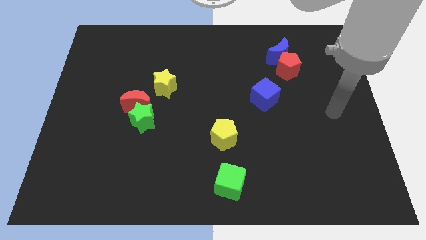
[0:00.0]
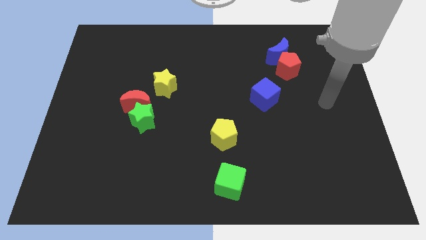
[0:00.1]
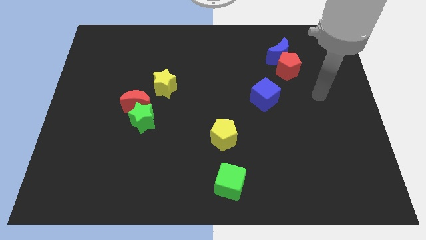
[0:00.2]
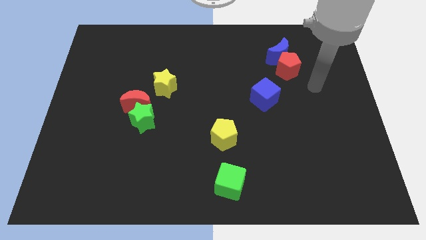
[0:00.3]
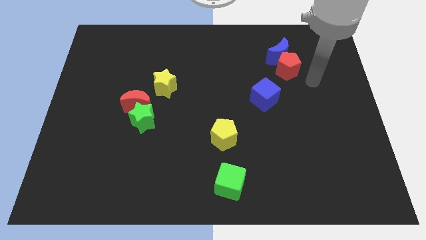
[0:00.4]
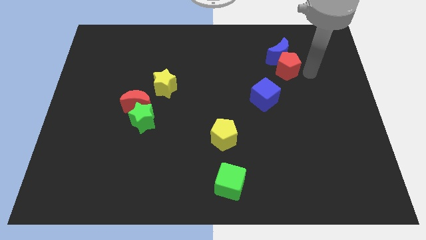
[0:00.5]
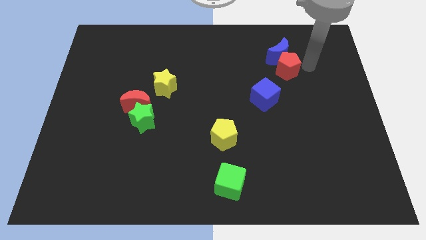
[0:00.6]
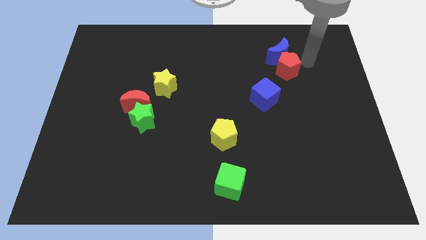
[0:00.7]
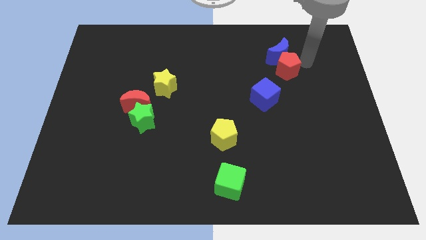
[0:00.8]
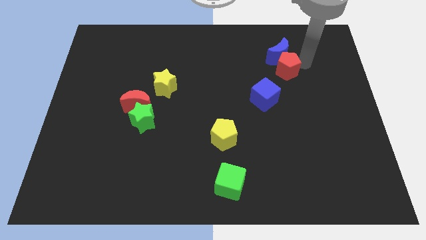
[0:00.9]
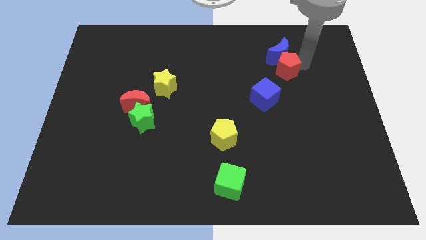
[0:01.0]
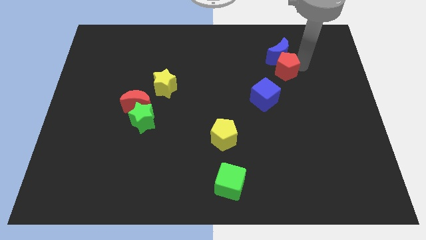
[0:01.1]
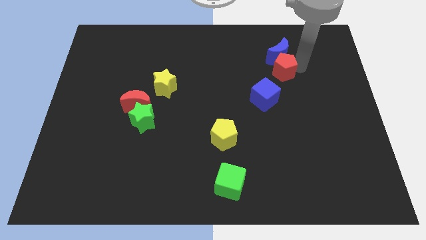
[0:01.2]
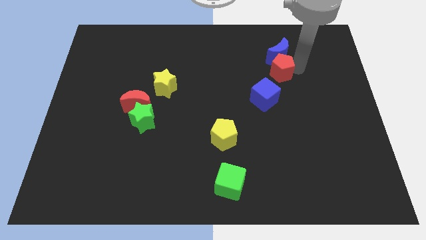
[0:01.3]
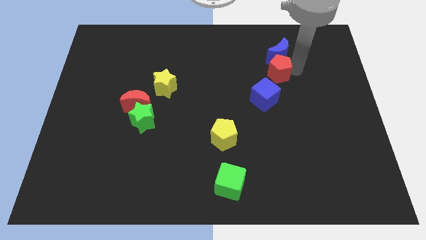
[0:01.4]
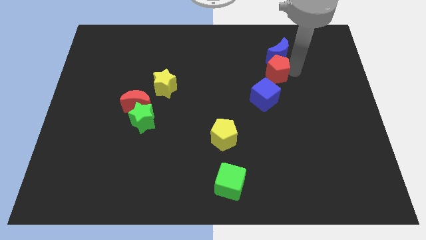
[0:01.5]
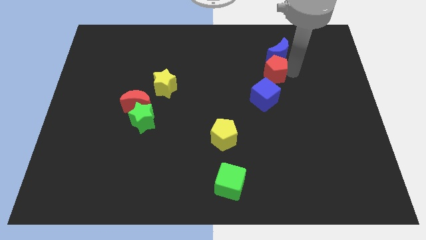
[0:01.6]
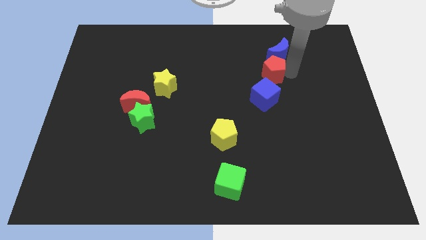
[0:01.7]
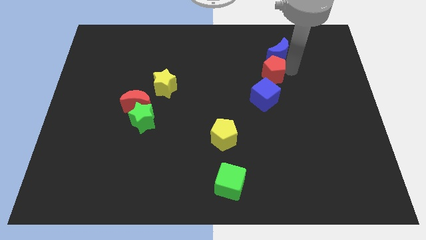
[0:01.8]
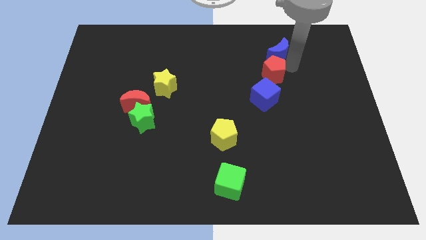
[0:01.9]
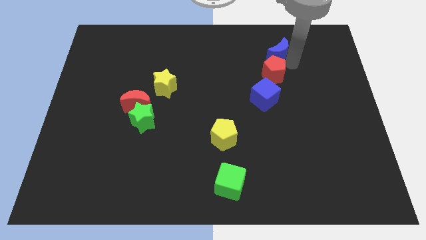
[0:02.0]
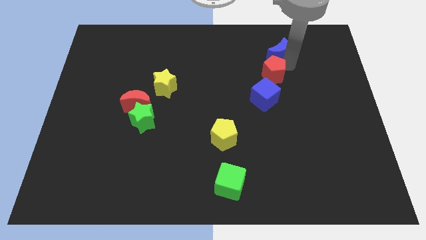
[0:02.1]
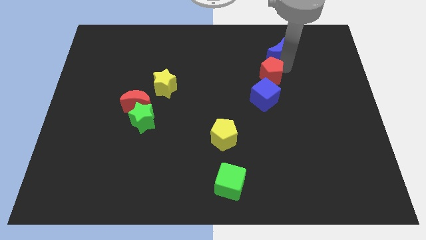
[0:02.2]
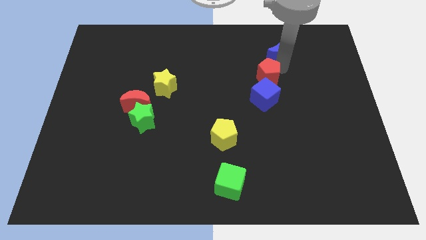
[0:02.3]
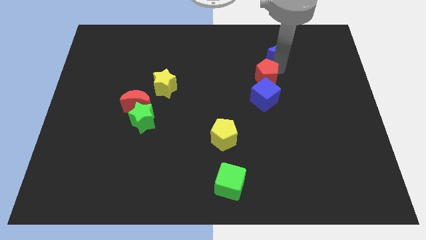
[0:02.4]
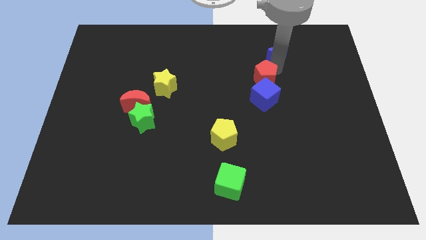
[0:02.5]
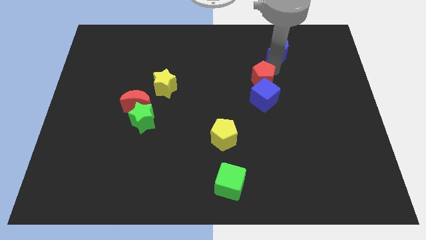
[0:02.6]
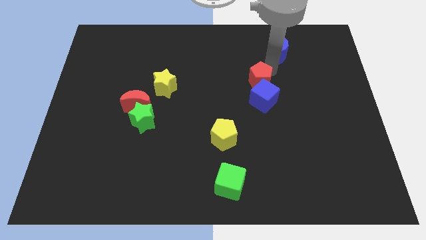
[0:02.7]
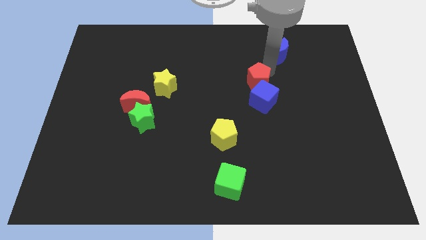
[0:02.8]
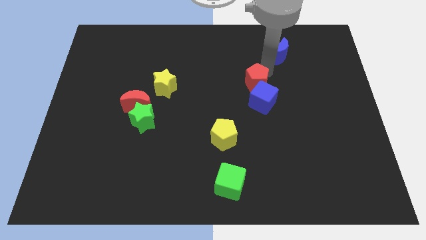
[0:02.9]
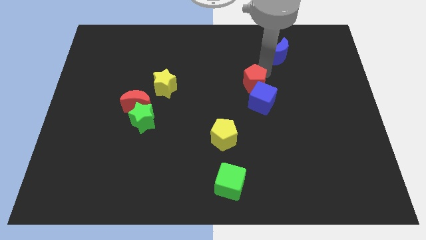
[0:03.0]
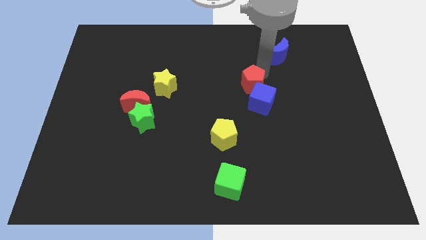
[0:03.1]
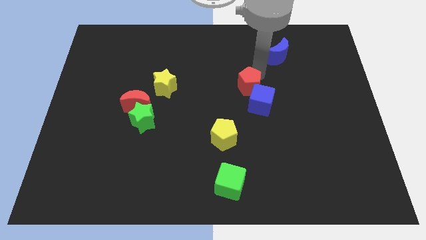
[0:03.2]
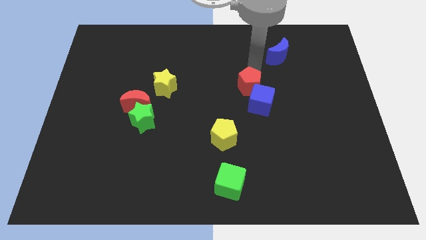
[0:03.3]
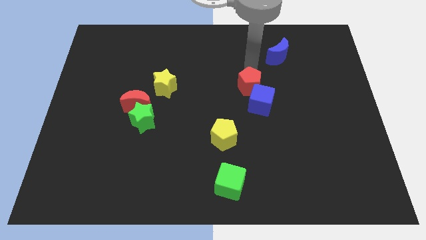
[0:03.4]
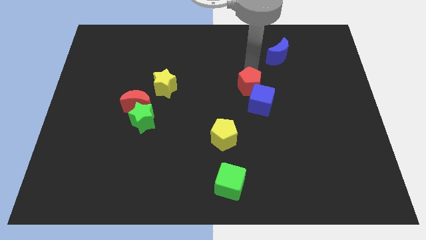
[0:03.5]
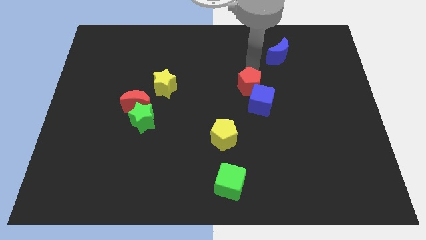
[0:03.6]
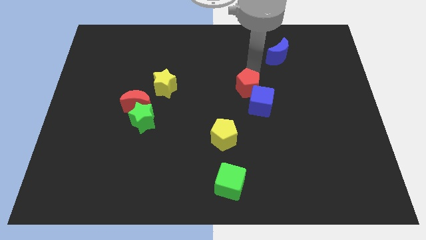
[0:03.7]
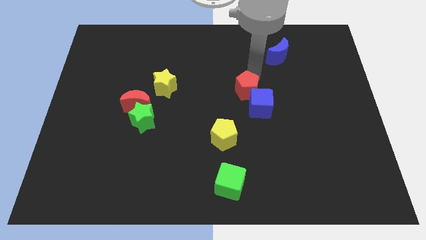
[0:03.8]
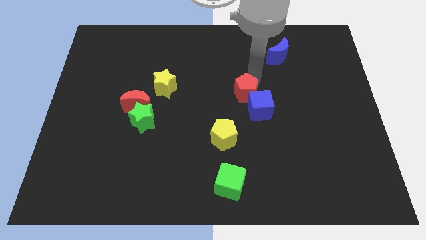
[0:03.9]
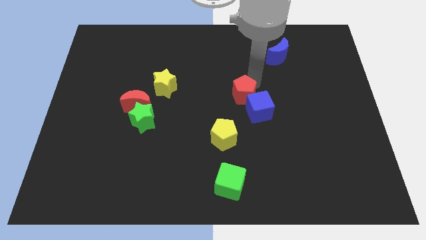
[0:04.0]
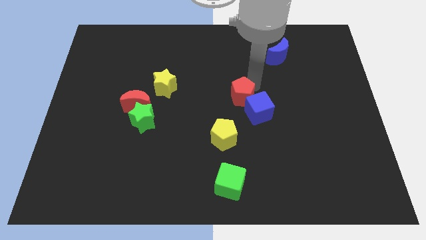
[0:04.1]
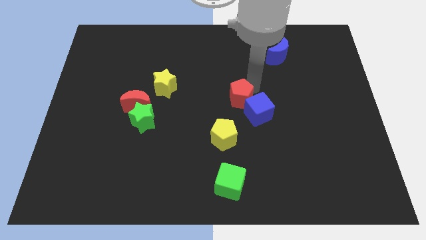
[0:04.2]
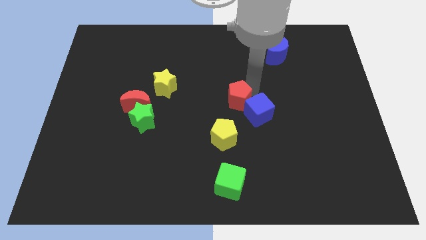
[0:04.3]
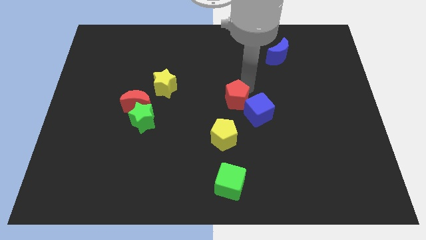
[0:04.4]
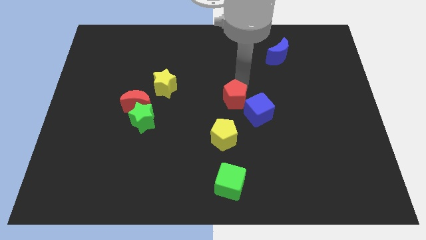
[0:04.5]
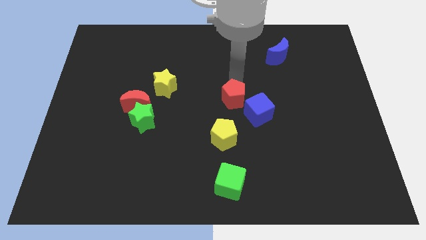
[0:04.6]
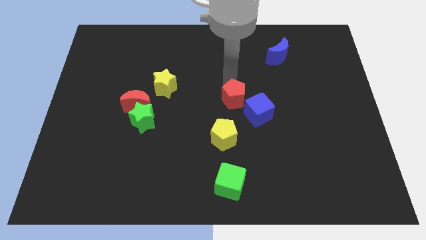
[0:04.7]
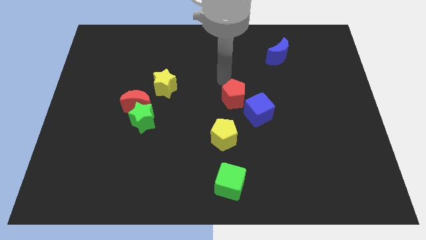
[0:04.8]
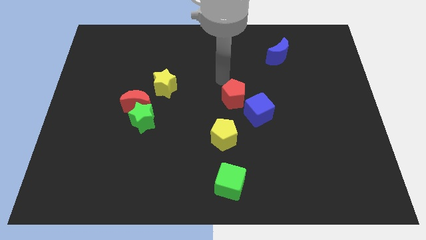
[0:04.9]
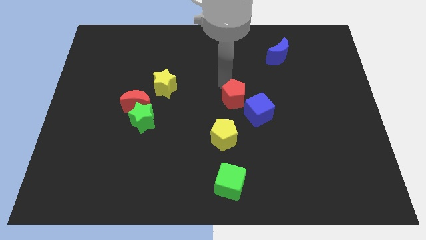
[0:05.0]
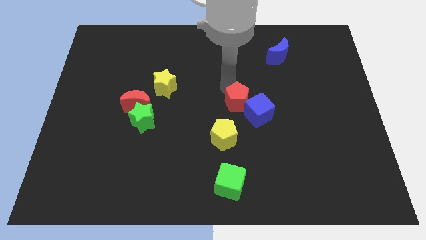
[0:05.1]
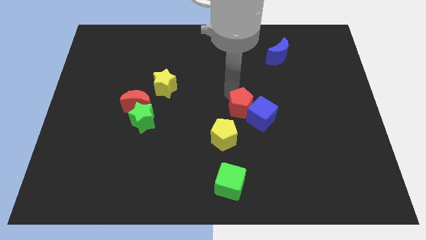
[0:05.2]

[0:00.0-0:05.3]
put the red pentagon diagonally up and to the right of the yellow pentagon

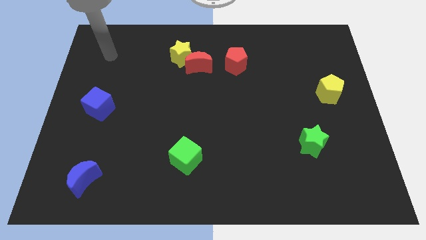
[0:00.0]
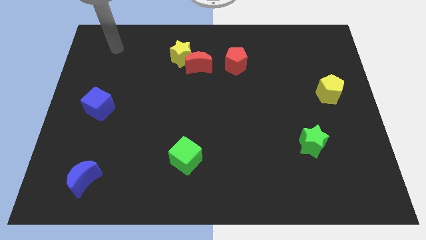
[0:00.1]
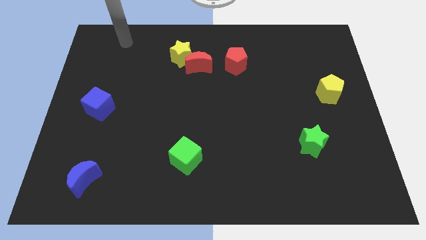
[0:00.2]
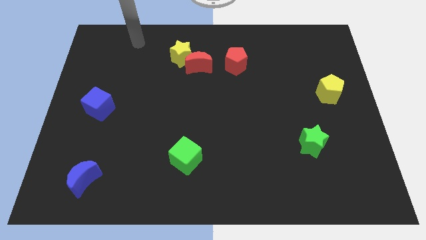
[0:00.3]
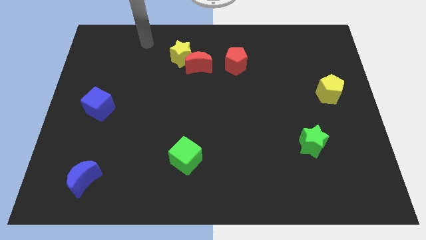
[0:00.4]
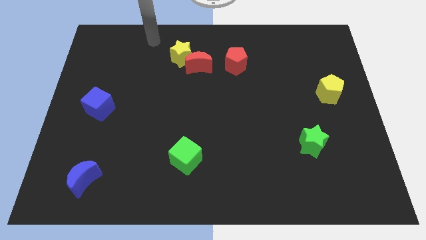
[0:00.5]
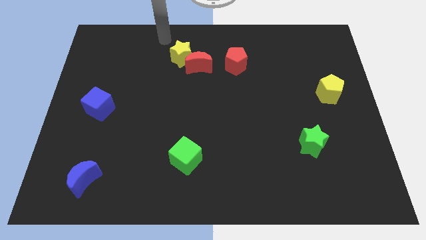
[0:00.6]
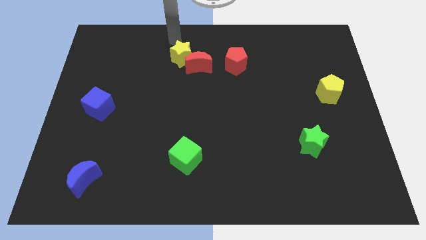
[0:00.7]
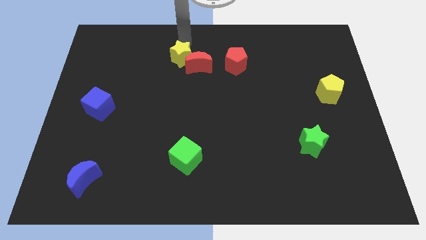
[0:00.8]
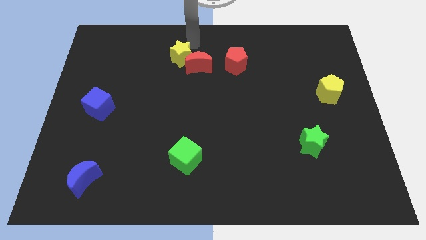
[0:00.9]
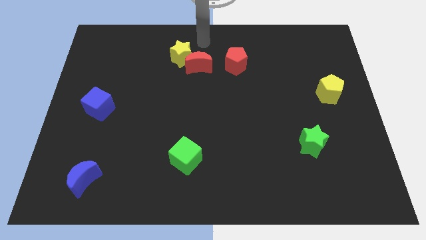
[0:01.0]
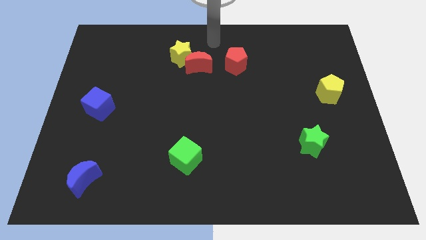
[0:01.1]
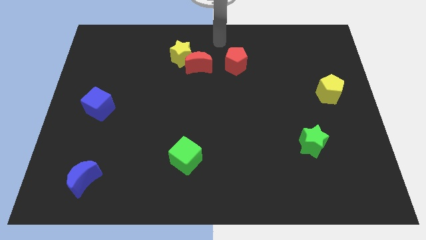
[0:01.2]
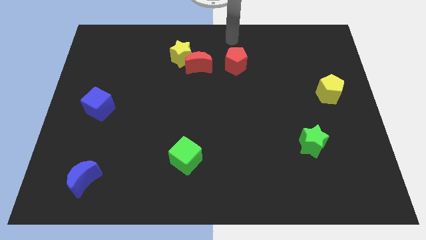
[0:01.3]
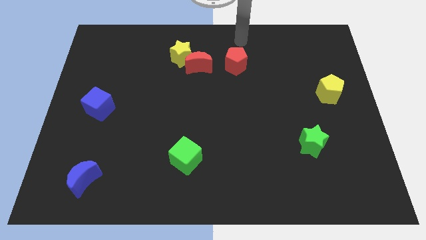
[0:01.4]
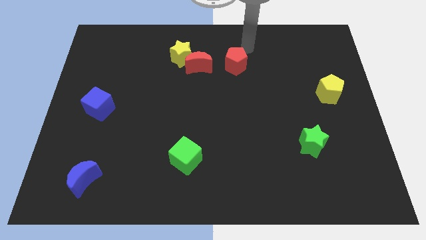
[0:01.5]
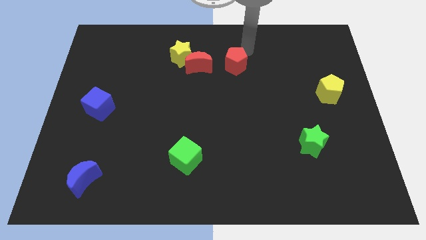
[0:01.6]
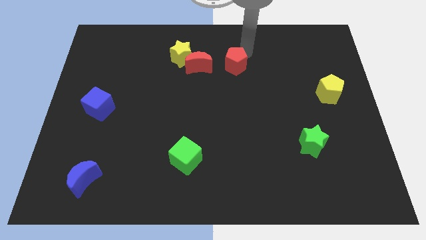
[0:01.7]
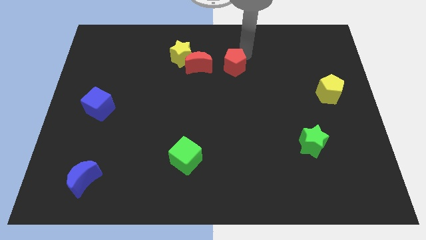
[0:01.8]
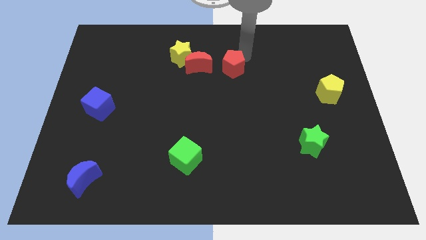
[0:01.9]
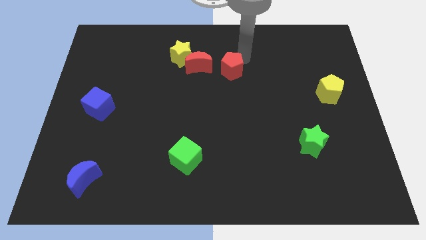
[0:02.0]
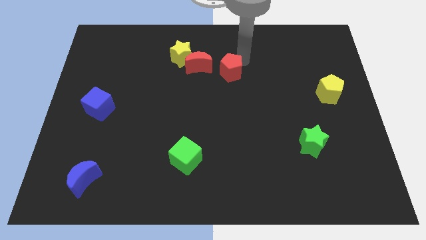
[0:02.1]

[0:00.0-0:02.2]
move the red pentagon diagonally down and to the right of the red moon
